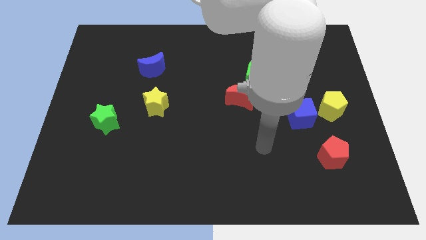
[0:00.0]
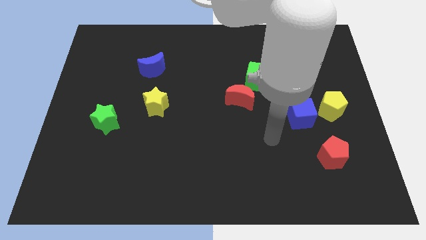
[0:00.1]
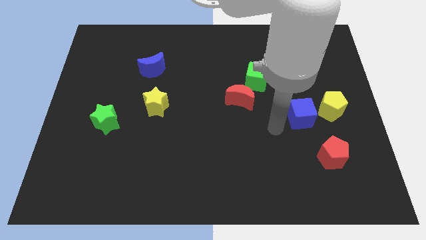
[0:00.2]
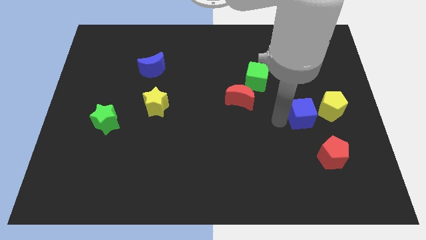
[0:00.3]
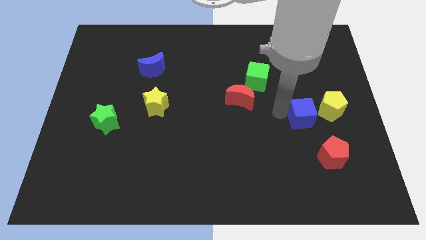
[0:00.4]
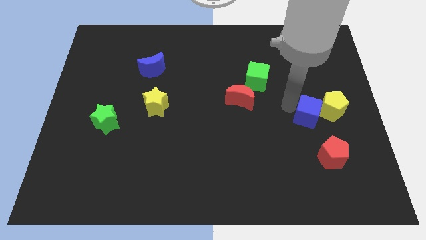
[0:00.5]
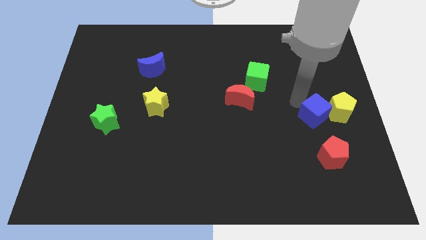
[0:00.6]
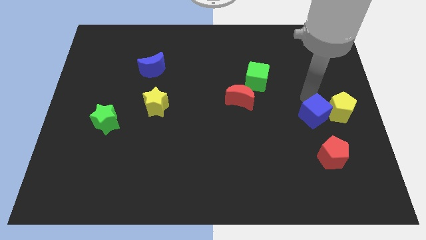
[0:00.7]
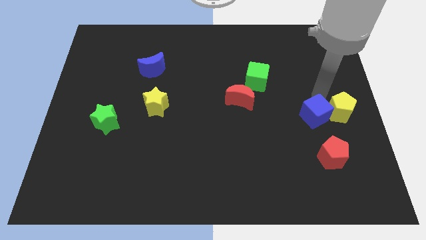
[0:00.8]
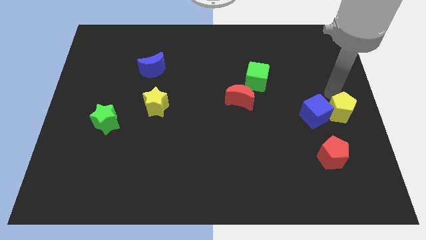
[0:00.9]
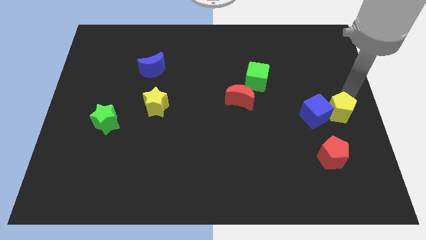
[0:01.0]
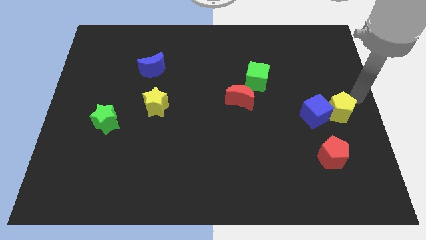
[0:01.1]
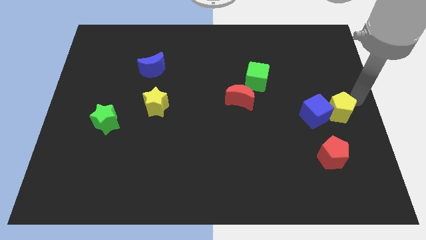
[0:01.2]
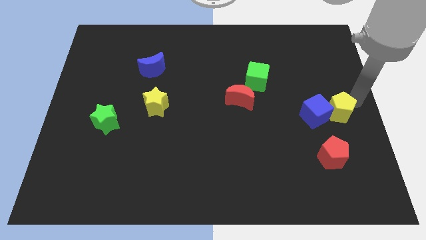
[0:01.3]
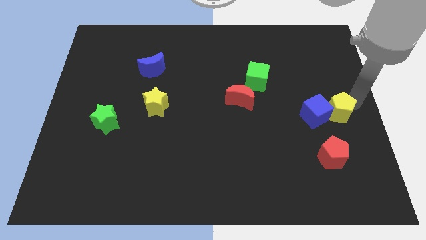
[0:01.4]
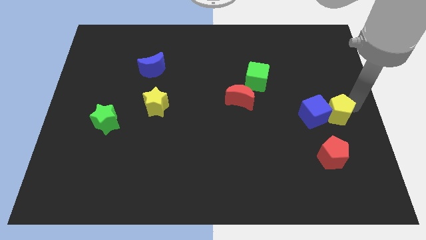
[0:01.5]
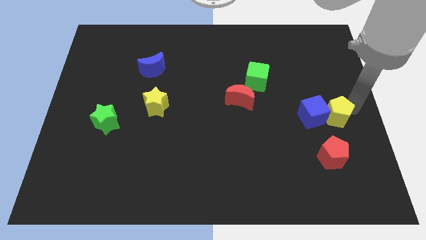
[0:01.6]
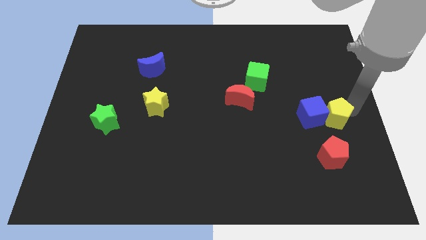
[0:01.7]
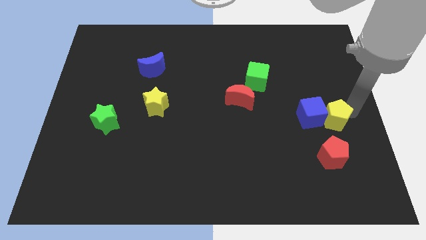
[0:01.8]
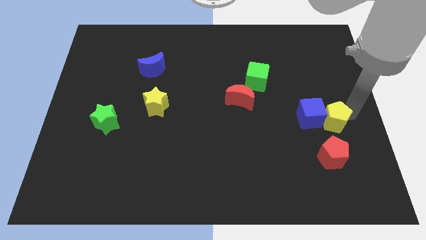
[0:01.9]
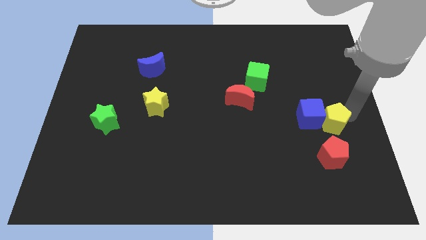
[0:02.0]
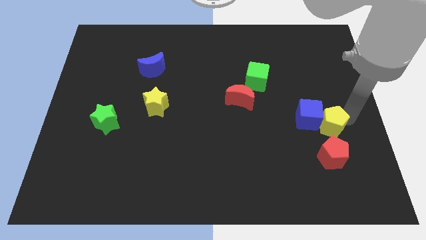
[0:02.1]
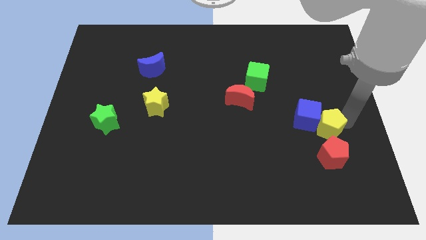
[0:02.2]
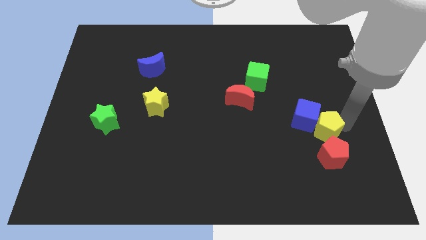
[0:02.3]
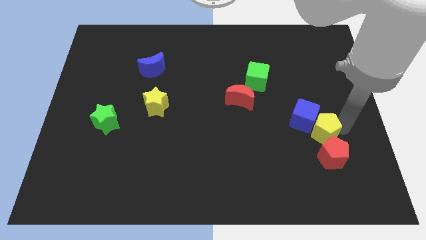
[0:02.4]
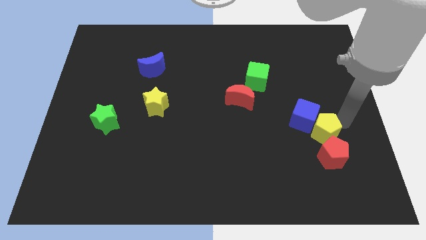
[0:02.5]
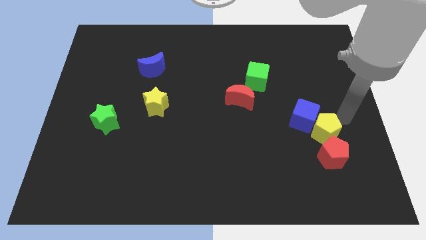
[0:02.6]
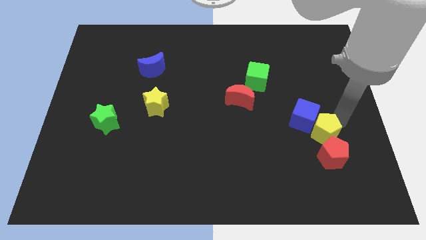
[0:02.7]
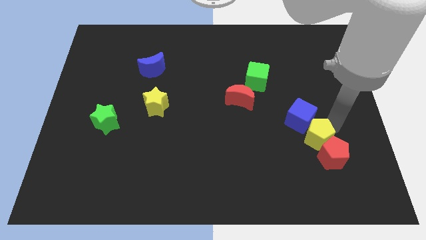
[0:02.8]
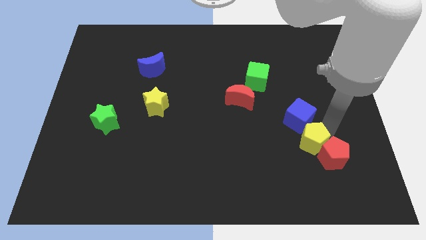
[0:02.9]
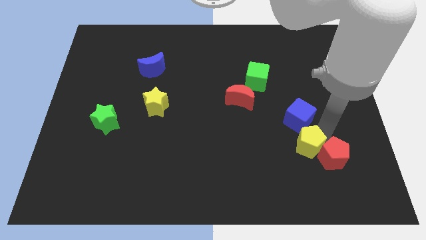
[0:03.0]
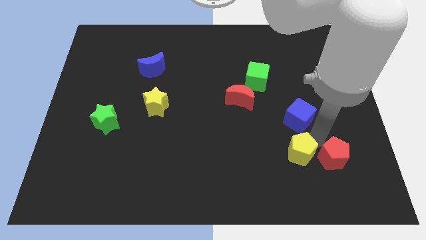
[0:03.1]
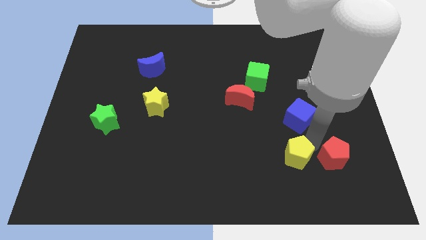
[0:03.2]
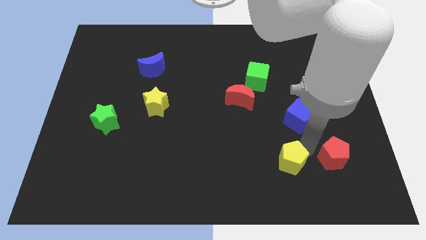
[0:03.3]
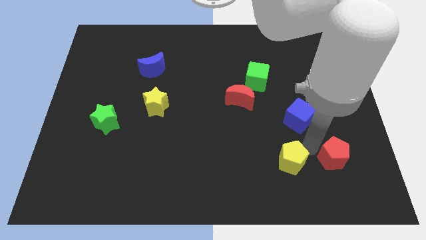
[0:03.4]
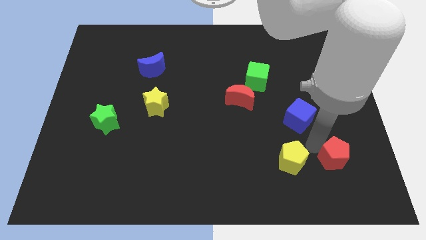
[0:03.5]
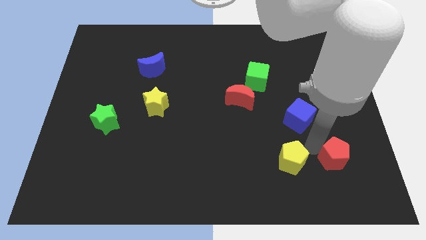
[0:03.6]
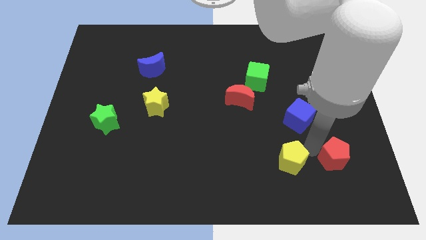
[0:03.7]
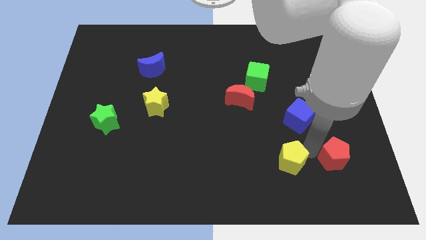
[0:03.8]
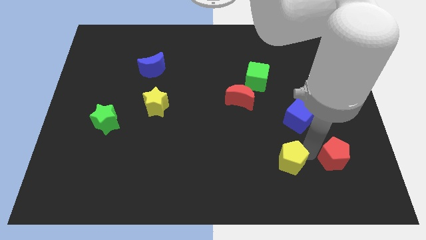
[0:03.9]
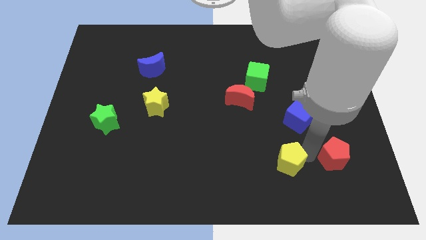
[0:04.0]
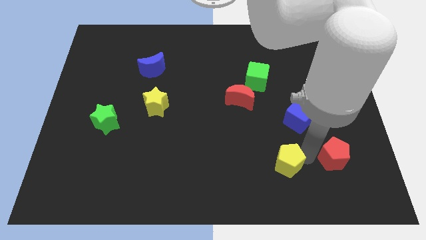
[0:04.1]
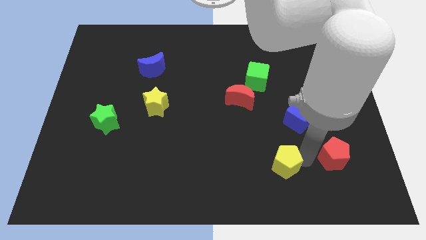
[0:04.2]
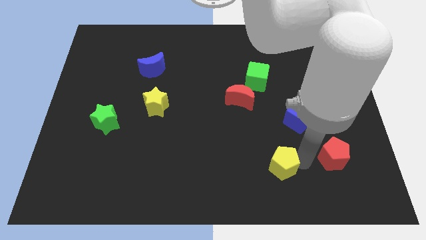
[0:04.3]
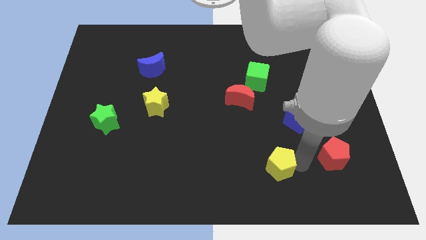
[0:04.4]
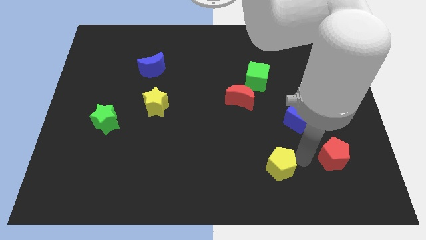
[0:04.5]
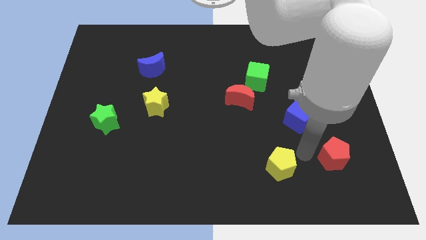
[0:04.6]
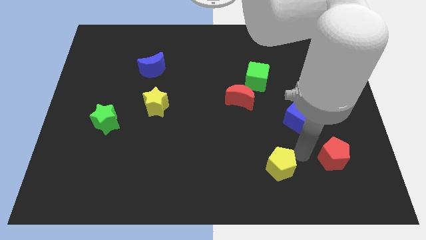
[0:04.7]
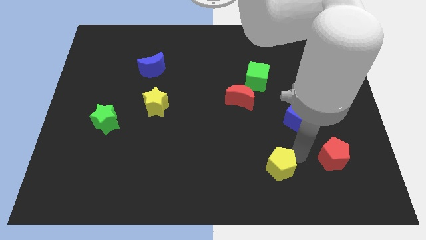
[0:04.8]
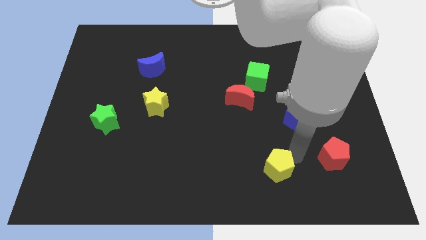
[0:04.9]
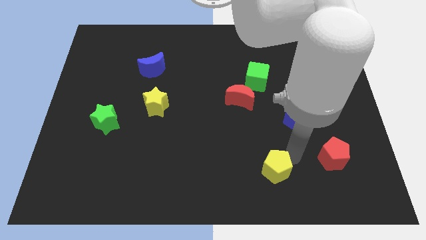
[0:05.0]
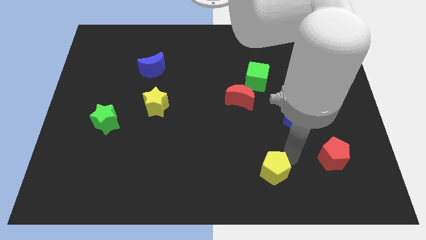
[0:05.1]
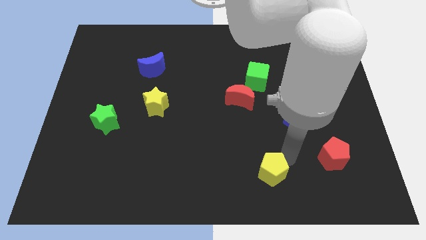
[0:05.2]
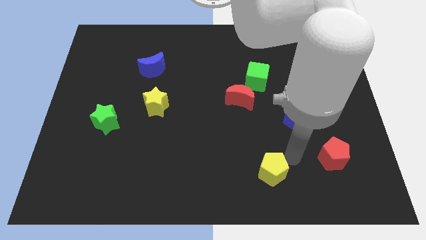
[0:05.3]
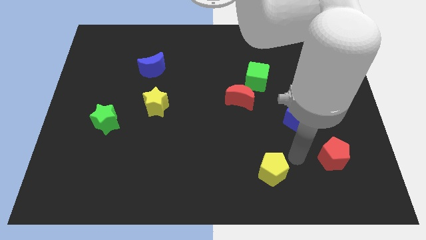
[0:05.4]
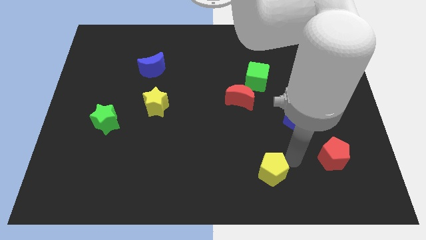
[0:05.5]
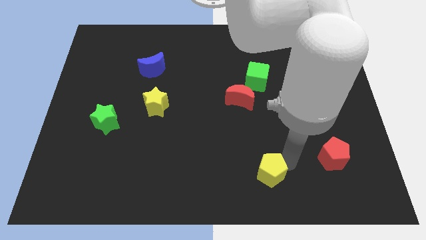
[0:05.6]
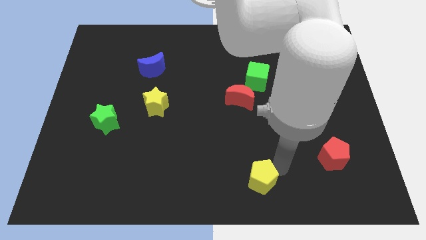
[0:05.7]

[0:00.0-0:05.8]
push the yellow pentagon to the bottom

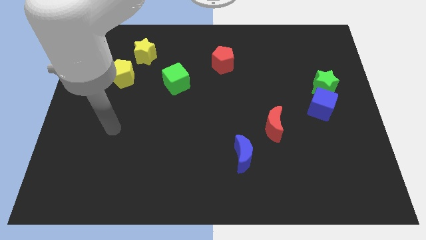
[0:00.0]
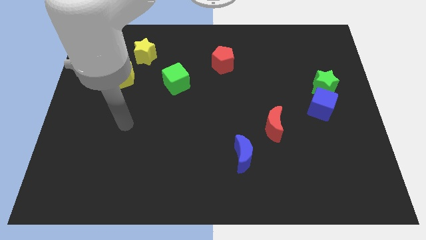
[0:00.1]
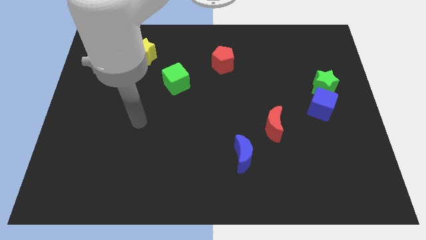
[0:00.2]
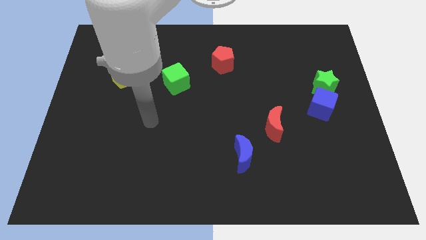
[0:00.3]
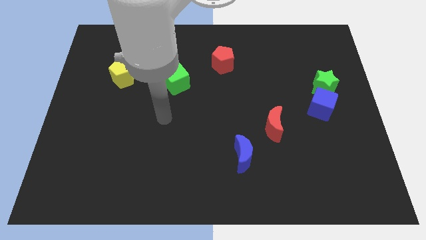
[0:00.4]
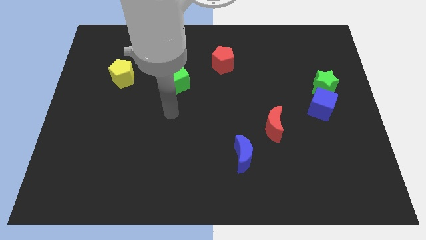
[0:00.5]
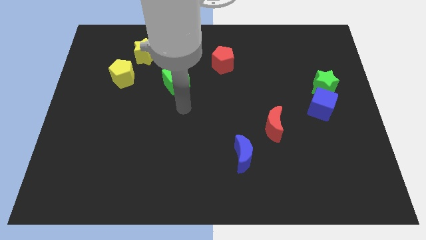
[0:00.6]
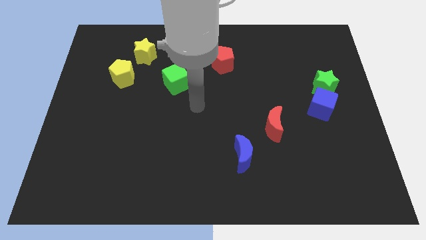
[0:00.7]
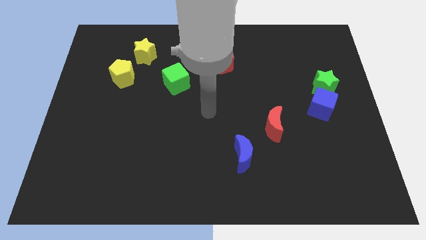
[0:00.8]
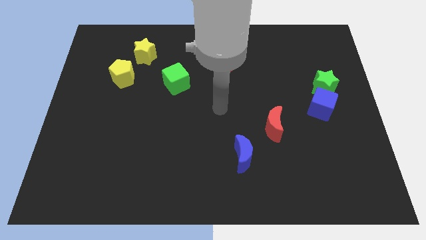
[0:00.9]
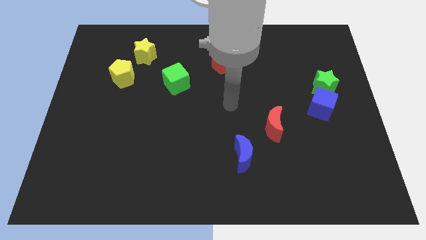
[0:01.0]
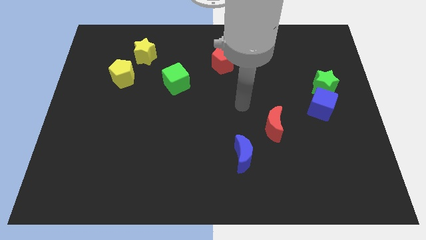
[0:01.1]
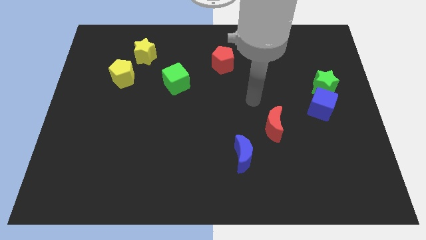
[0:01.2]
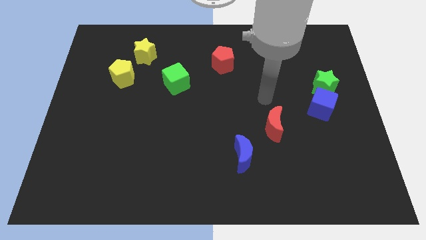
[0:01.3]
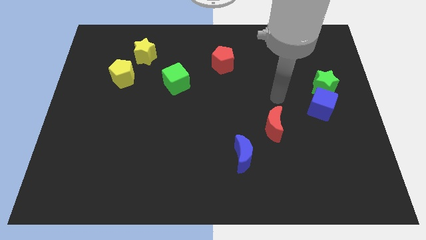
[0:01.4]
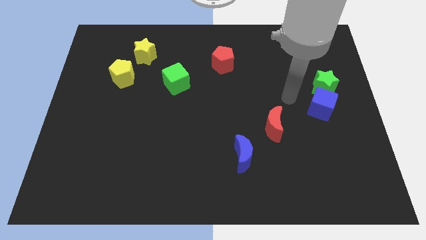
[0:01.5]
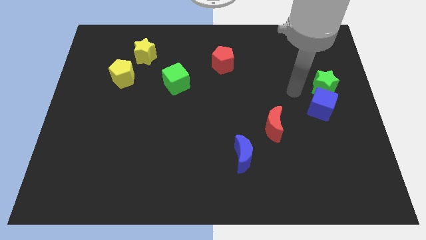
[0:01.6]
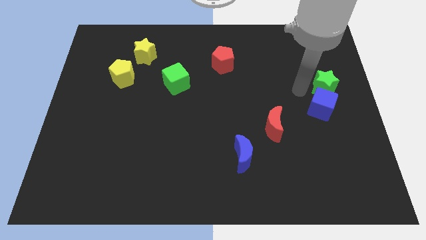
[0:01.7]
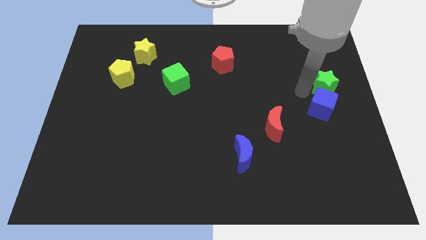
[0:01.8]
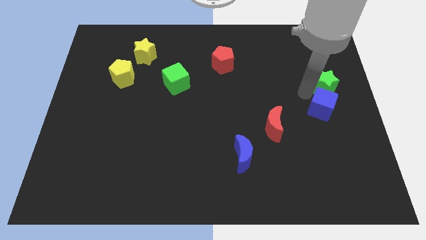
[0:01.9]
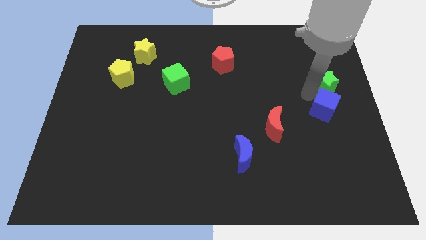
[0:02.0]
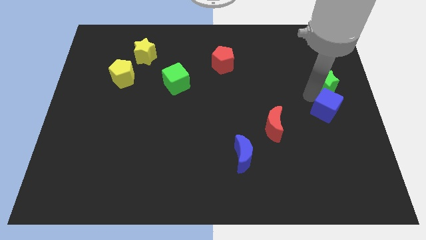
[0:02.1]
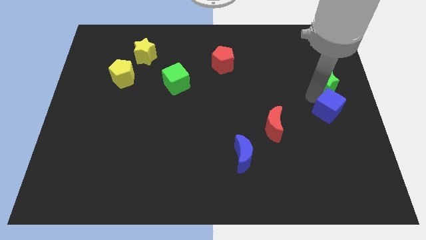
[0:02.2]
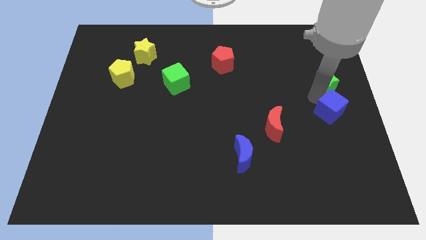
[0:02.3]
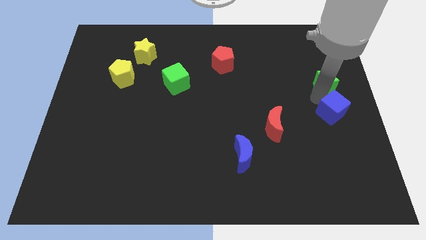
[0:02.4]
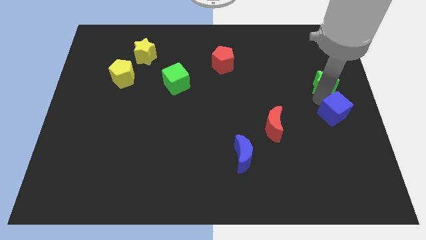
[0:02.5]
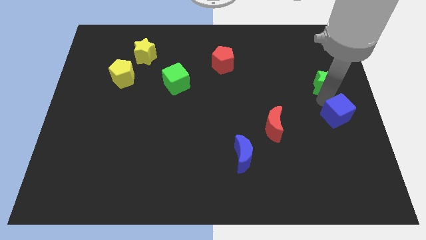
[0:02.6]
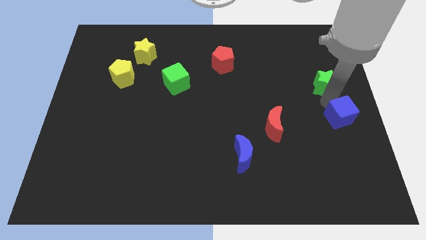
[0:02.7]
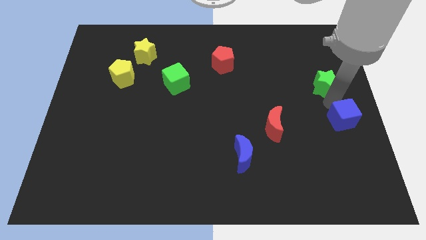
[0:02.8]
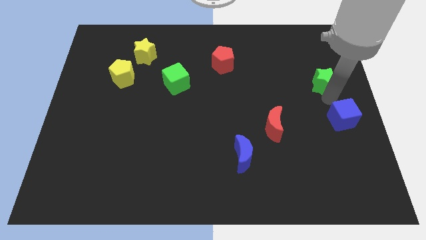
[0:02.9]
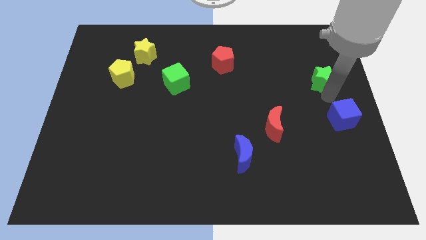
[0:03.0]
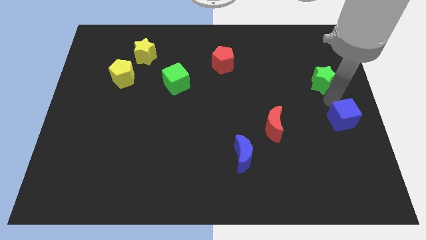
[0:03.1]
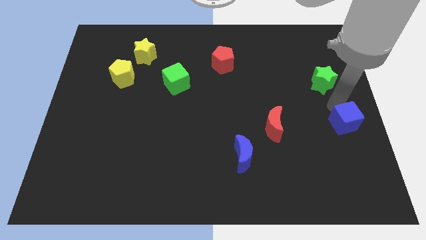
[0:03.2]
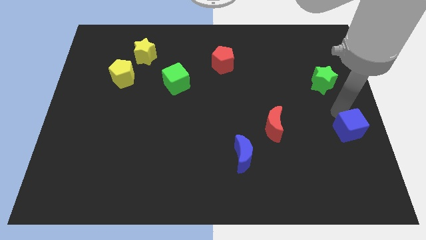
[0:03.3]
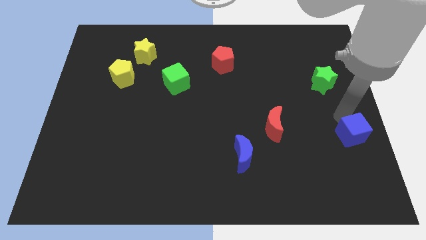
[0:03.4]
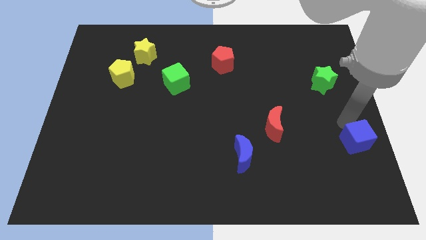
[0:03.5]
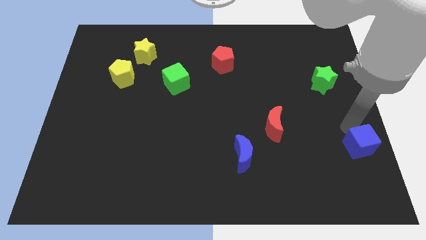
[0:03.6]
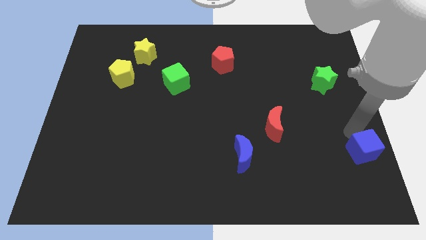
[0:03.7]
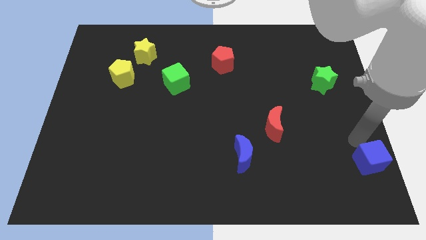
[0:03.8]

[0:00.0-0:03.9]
put the blue cube to the bottom right of the board
